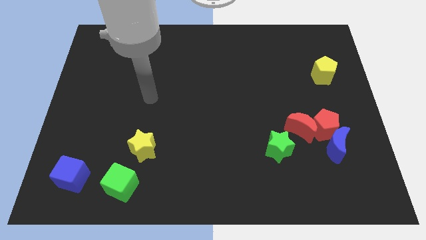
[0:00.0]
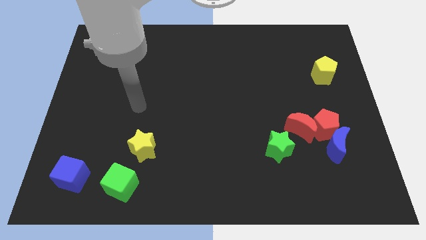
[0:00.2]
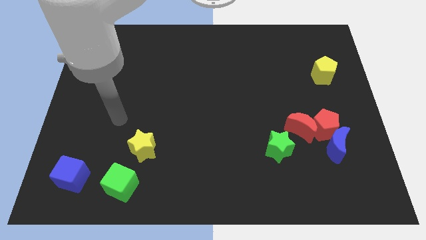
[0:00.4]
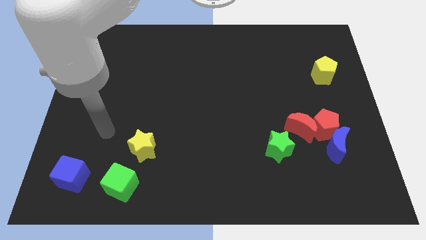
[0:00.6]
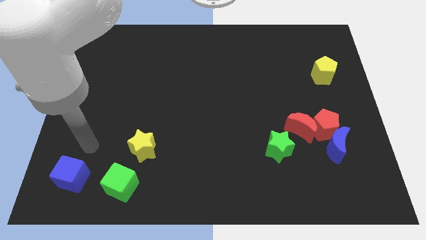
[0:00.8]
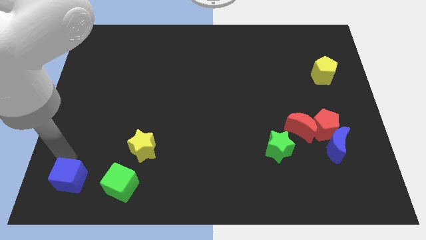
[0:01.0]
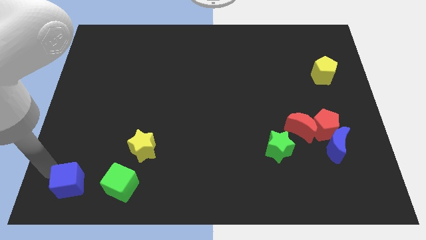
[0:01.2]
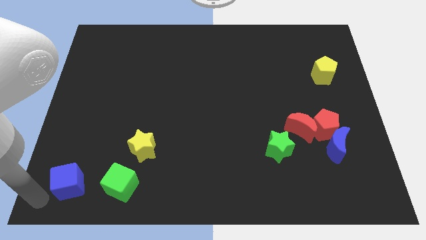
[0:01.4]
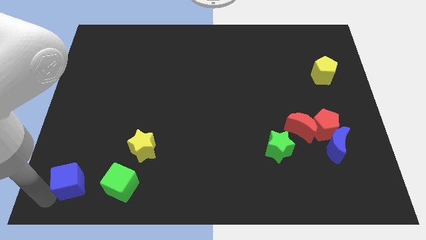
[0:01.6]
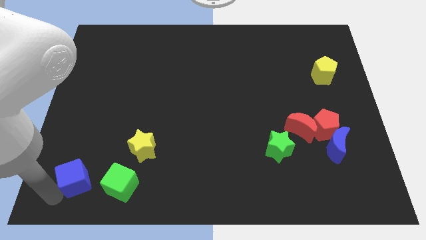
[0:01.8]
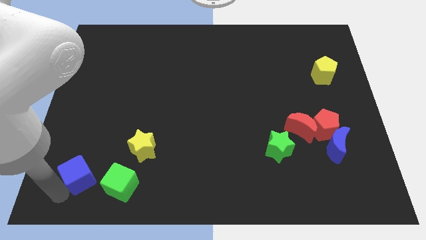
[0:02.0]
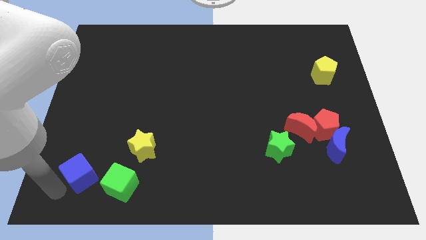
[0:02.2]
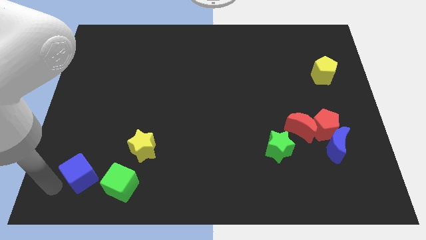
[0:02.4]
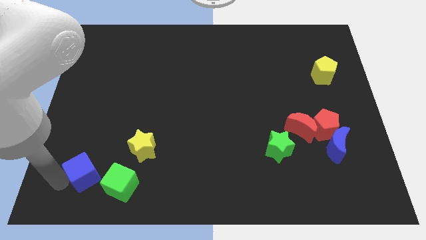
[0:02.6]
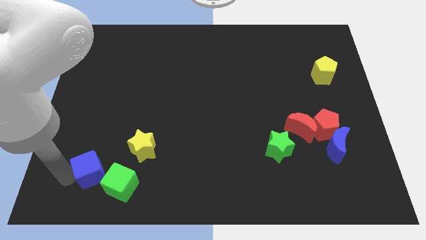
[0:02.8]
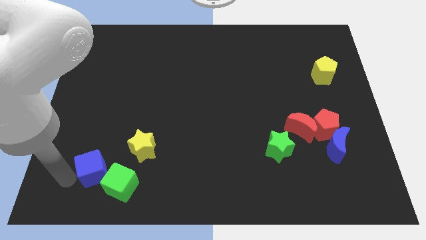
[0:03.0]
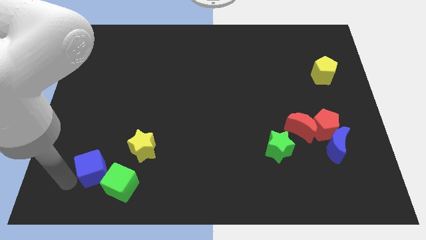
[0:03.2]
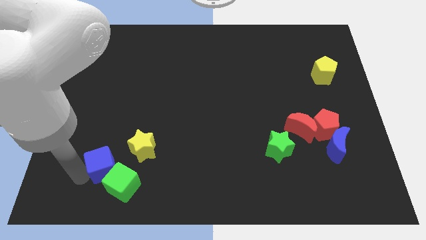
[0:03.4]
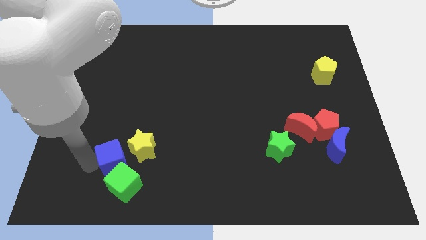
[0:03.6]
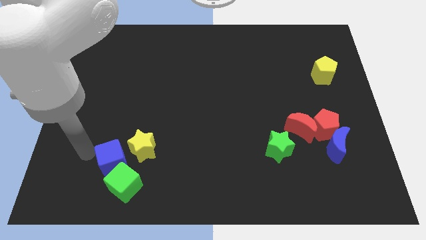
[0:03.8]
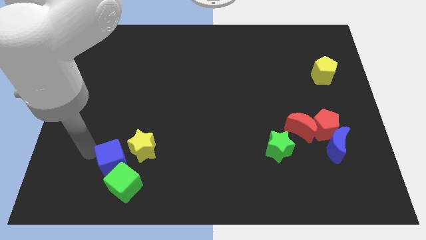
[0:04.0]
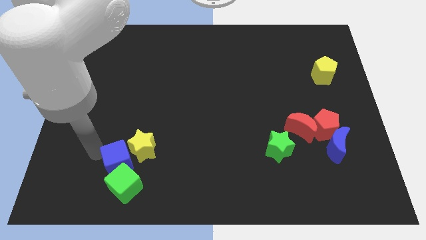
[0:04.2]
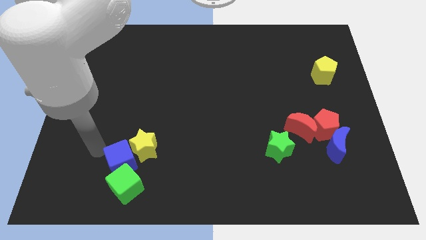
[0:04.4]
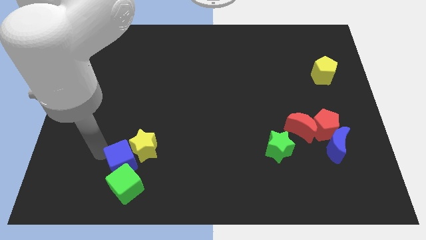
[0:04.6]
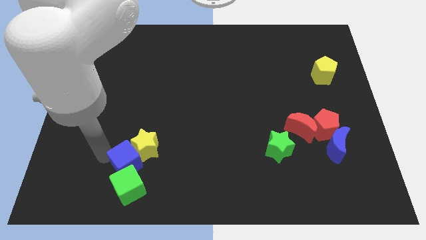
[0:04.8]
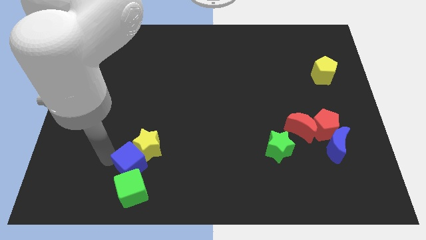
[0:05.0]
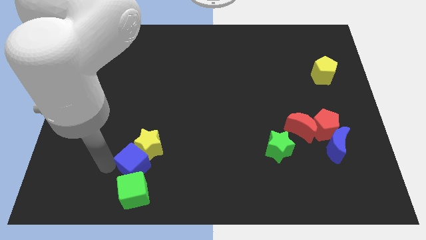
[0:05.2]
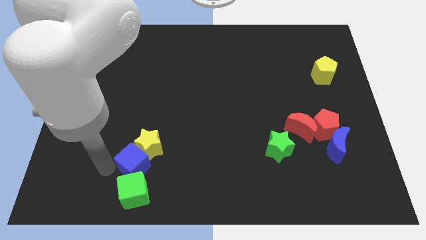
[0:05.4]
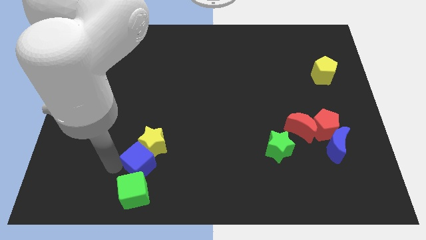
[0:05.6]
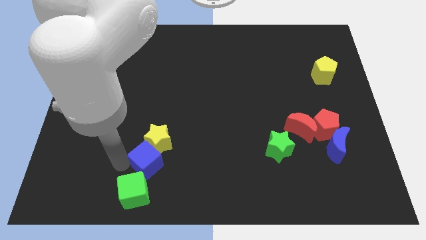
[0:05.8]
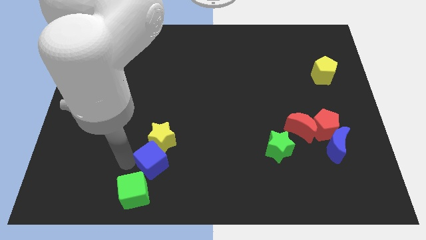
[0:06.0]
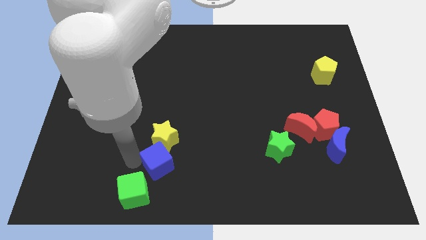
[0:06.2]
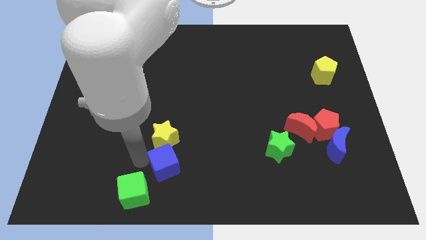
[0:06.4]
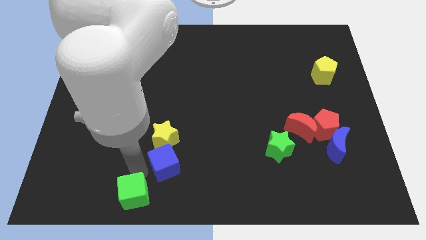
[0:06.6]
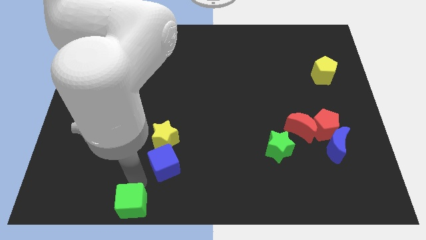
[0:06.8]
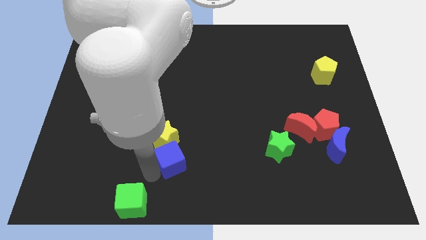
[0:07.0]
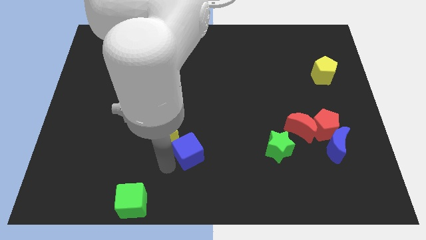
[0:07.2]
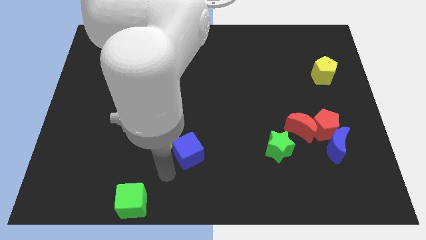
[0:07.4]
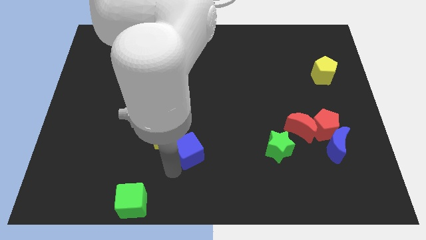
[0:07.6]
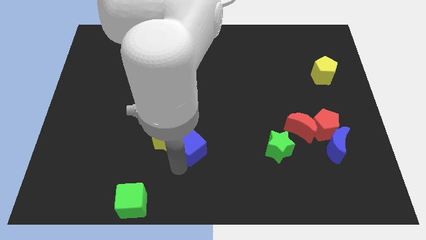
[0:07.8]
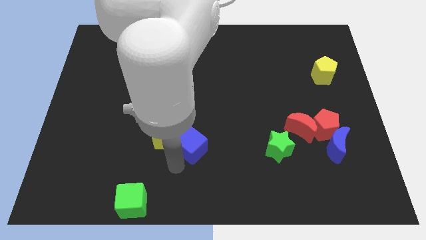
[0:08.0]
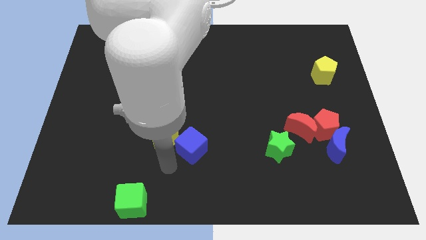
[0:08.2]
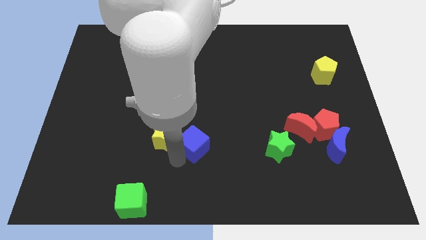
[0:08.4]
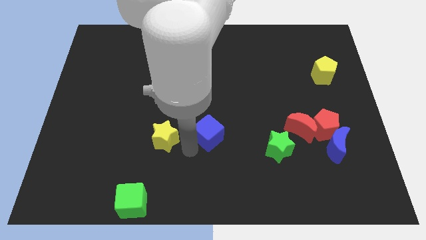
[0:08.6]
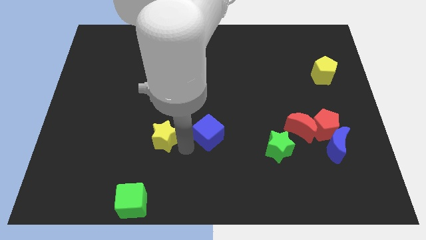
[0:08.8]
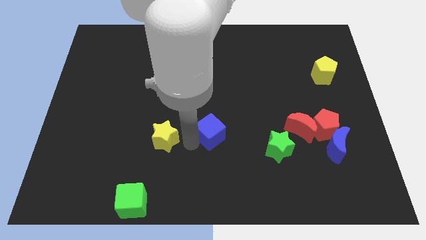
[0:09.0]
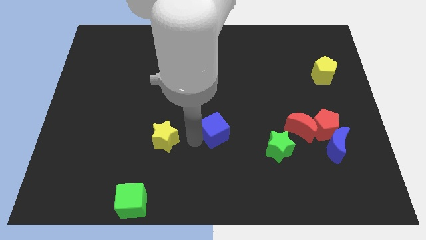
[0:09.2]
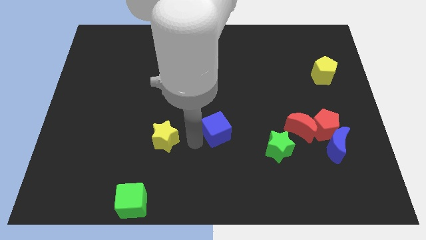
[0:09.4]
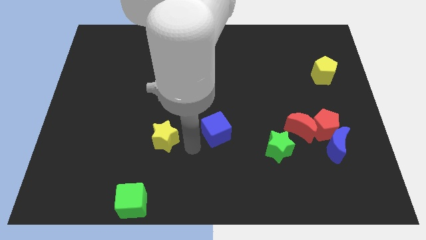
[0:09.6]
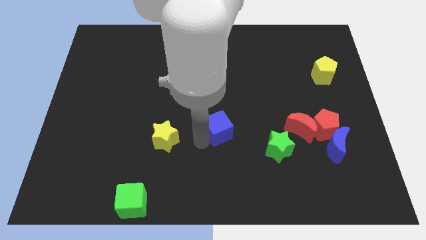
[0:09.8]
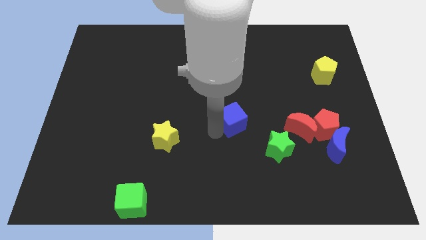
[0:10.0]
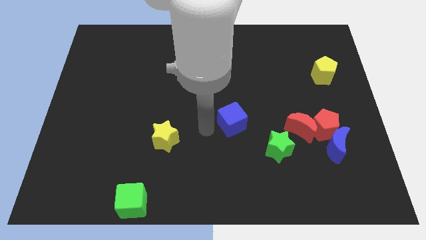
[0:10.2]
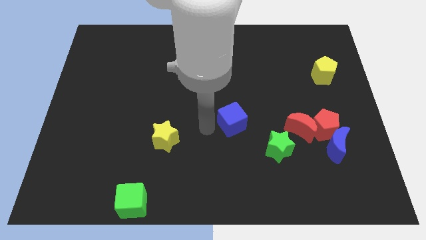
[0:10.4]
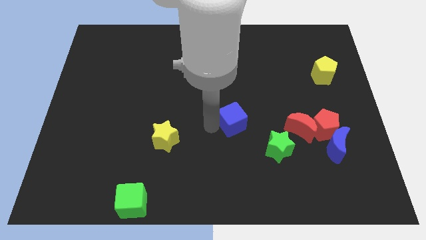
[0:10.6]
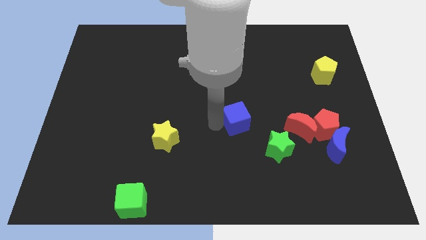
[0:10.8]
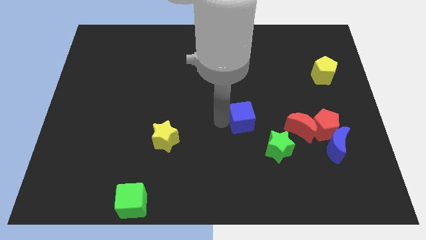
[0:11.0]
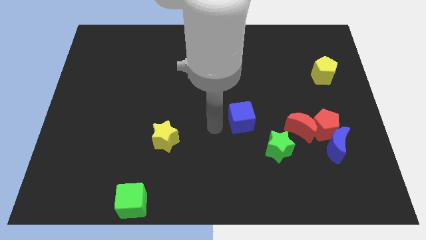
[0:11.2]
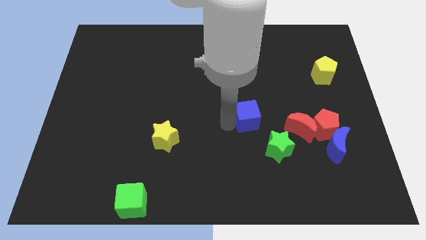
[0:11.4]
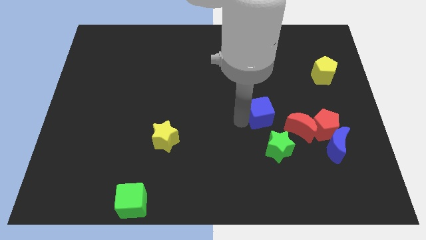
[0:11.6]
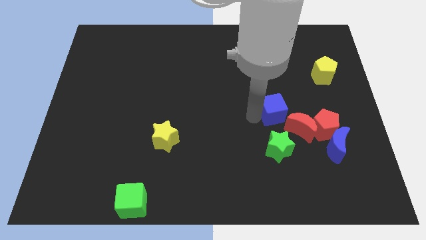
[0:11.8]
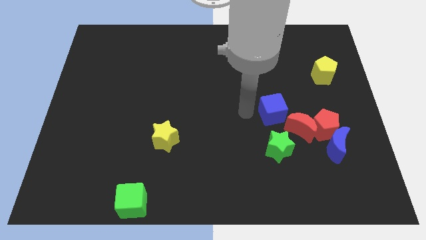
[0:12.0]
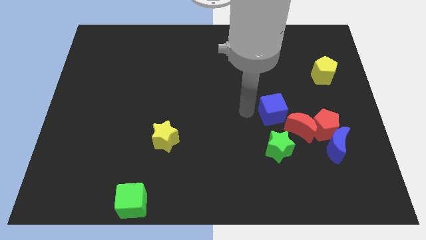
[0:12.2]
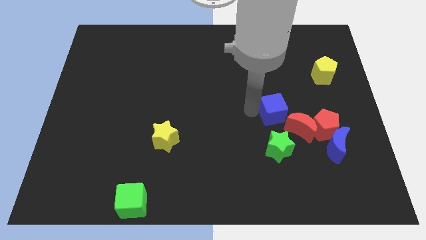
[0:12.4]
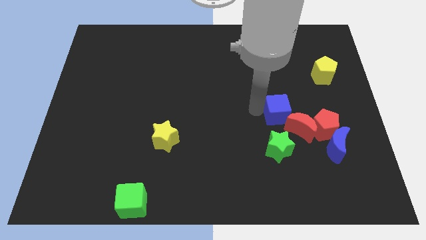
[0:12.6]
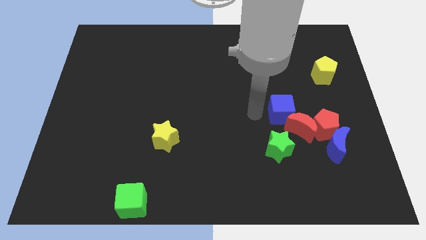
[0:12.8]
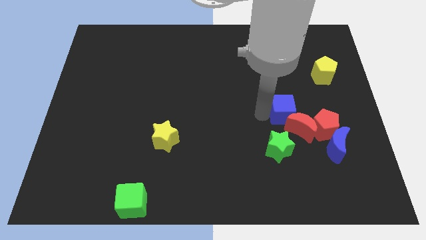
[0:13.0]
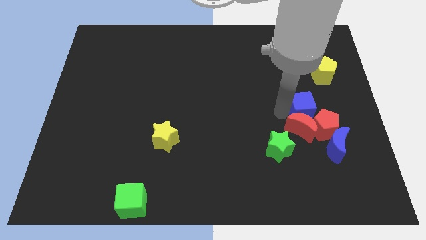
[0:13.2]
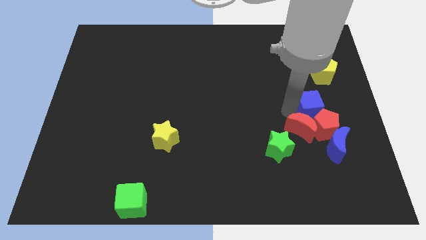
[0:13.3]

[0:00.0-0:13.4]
move the blue cube to the top of the blue moon
